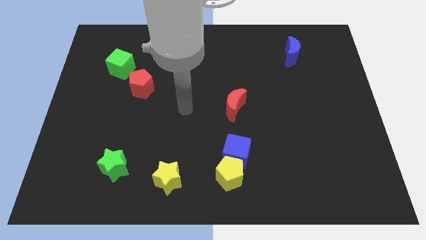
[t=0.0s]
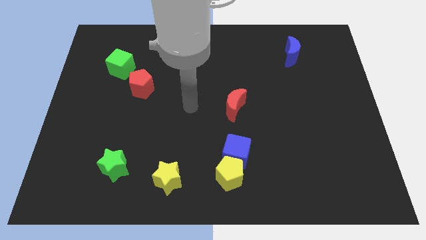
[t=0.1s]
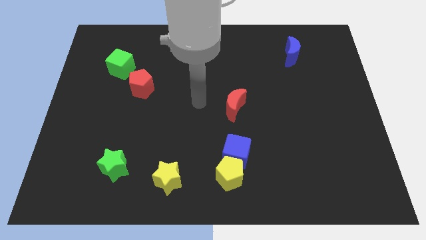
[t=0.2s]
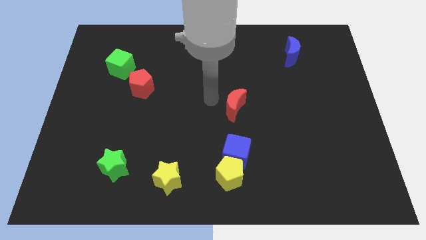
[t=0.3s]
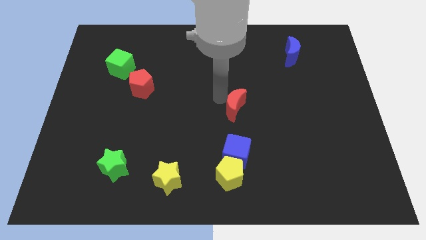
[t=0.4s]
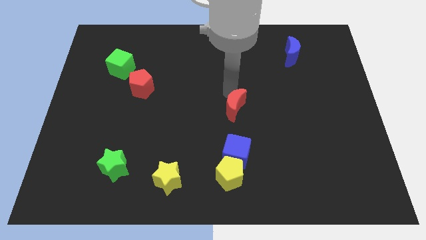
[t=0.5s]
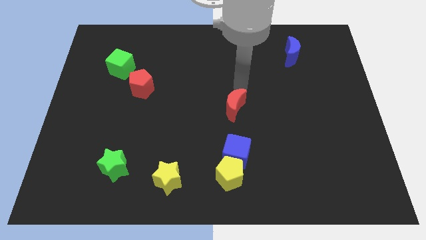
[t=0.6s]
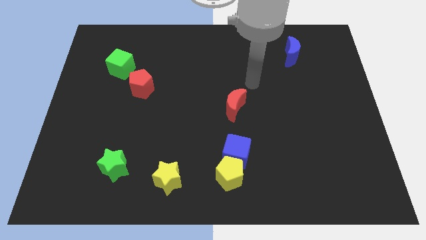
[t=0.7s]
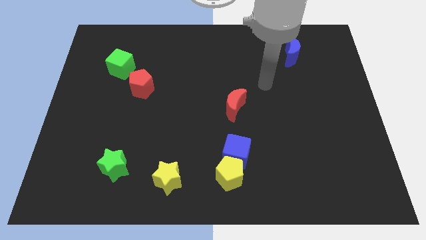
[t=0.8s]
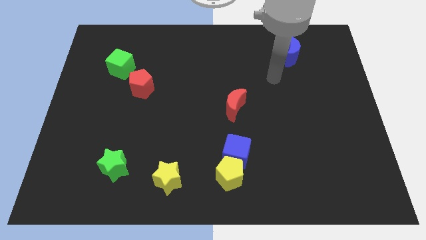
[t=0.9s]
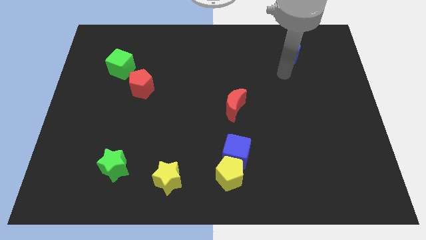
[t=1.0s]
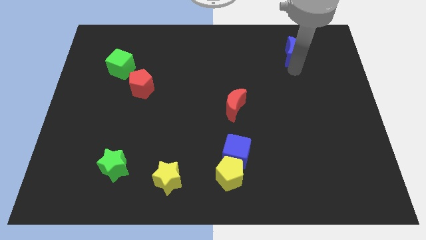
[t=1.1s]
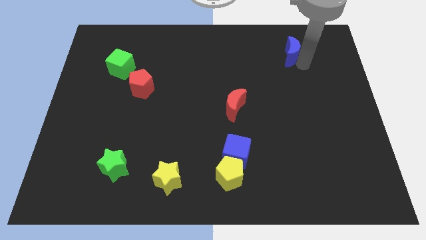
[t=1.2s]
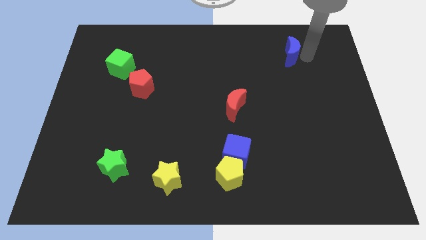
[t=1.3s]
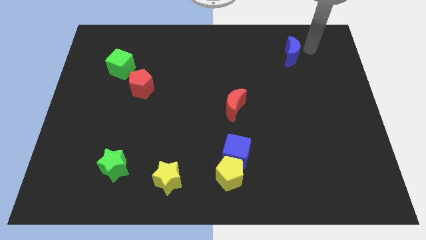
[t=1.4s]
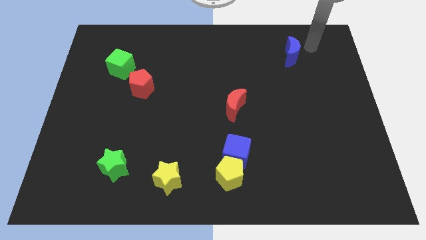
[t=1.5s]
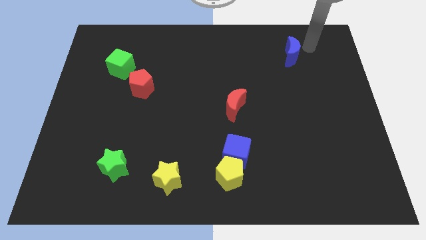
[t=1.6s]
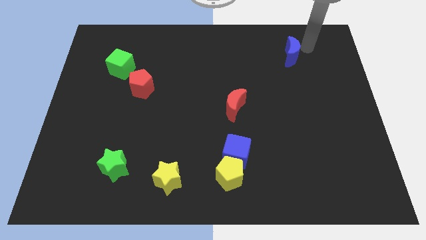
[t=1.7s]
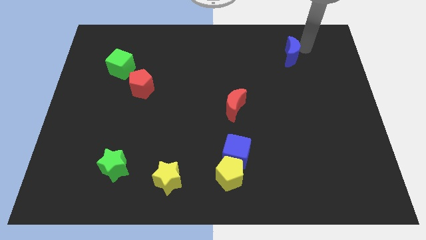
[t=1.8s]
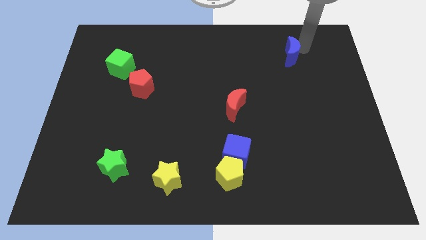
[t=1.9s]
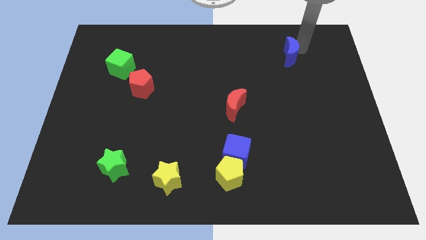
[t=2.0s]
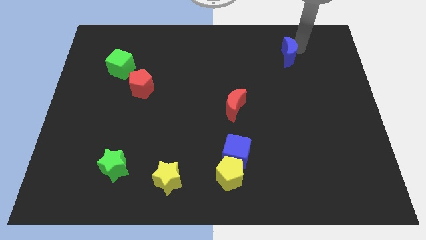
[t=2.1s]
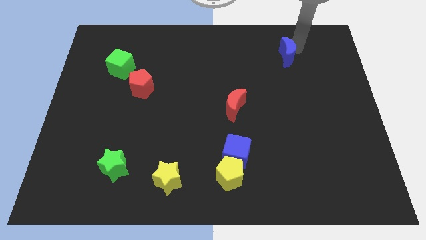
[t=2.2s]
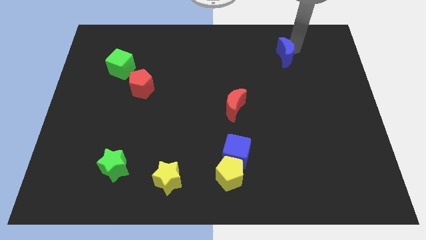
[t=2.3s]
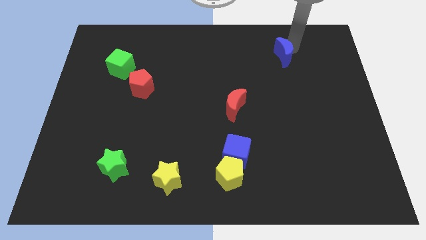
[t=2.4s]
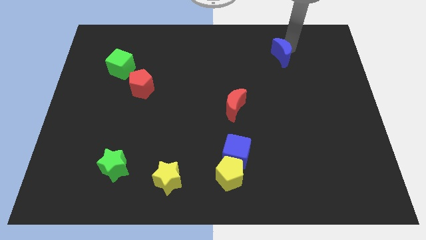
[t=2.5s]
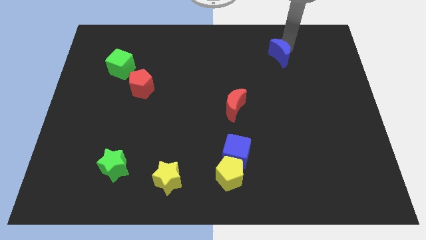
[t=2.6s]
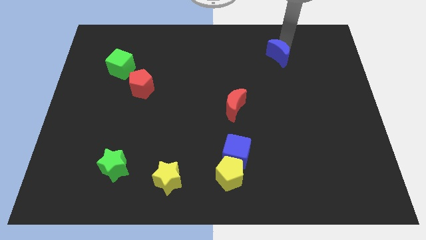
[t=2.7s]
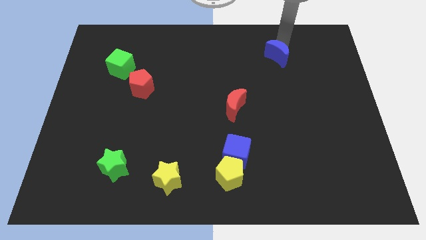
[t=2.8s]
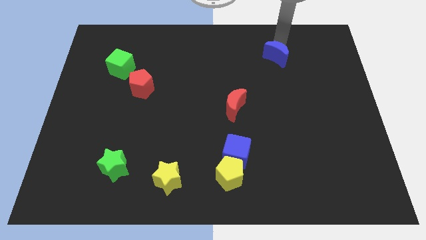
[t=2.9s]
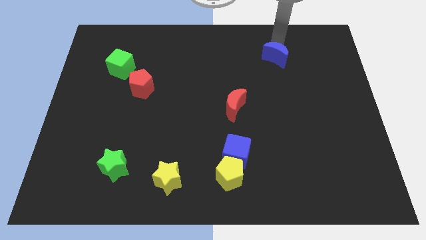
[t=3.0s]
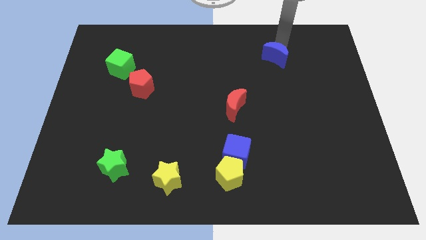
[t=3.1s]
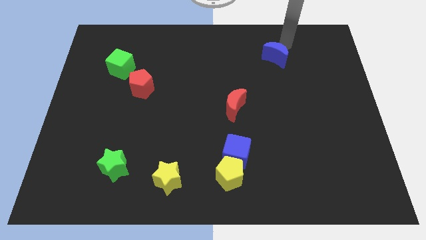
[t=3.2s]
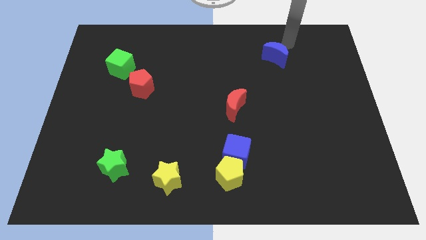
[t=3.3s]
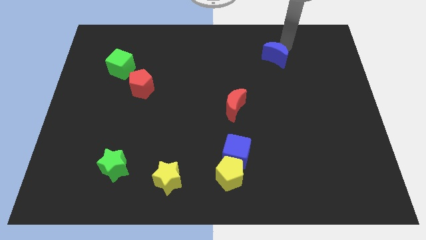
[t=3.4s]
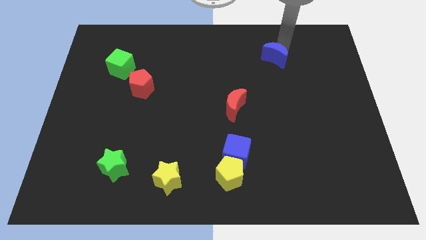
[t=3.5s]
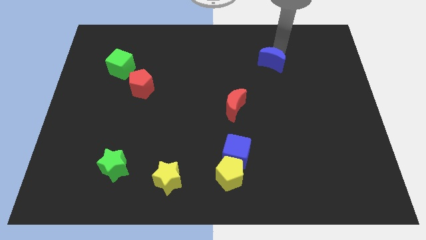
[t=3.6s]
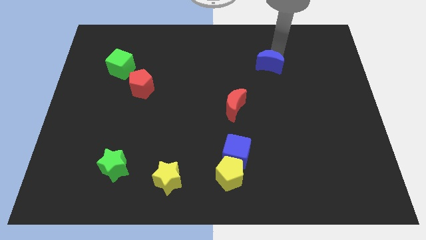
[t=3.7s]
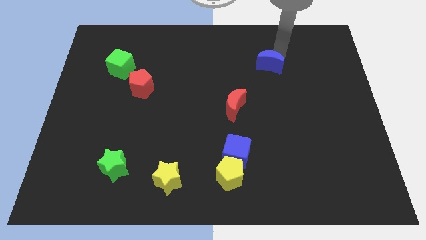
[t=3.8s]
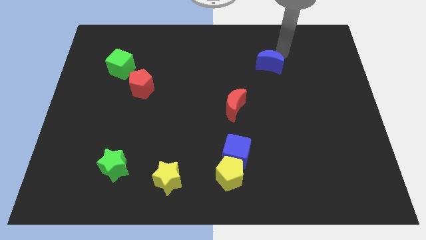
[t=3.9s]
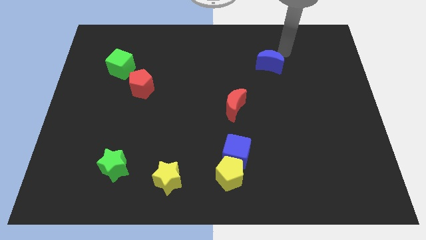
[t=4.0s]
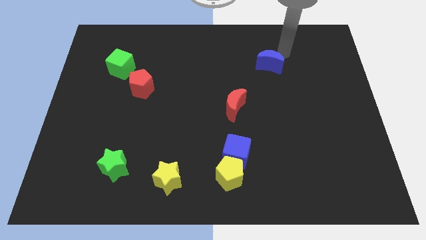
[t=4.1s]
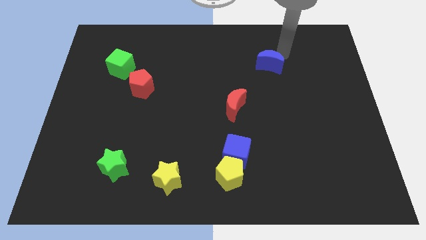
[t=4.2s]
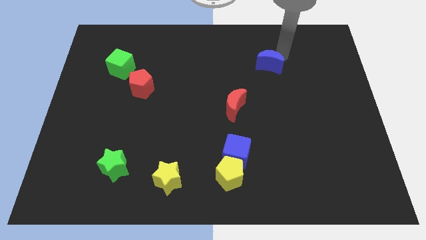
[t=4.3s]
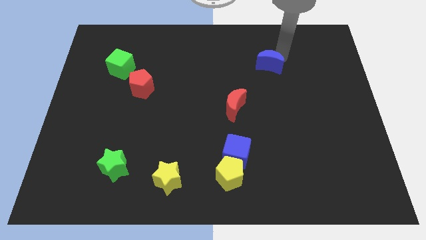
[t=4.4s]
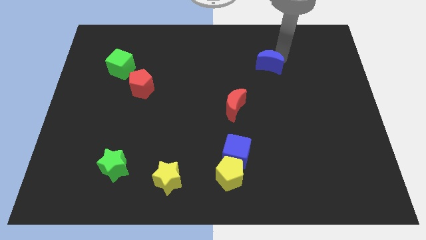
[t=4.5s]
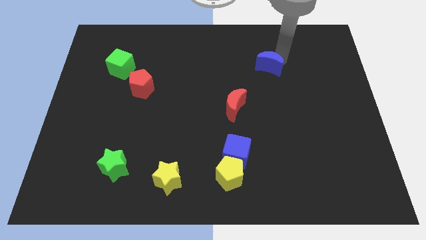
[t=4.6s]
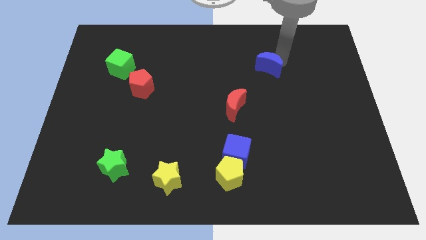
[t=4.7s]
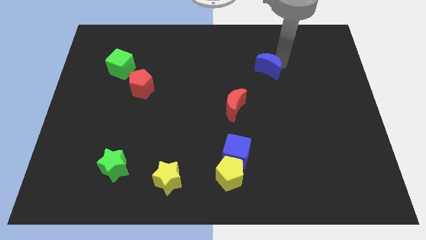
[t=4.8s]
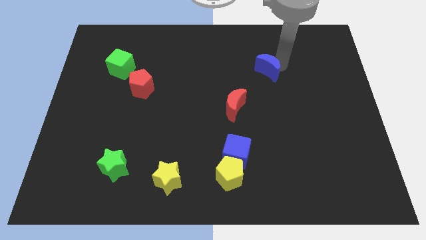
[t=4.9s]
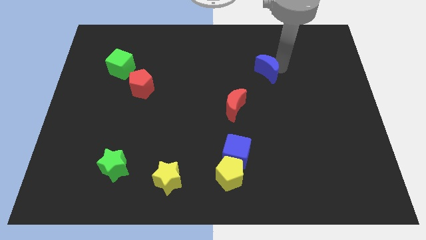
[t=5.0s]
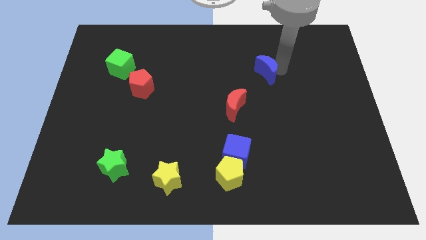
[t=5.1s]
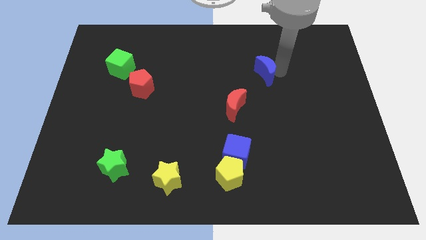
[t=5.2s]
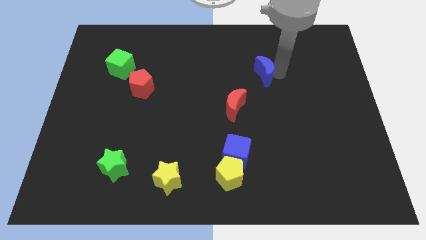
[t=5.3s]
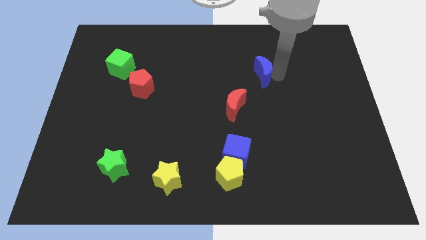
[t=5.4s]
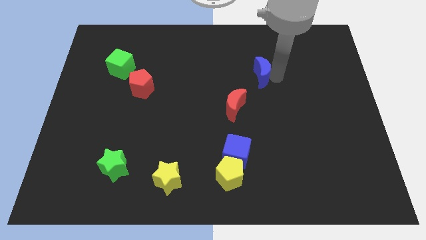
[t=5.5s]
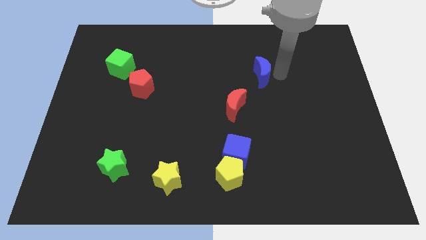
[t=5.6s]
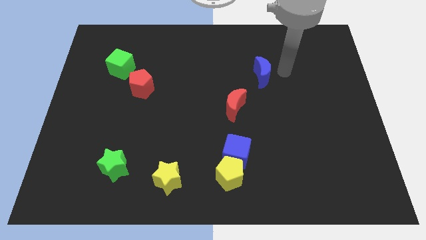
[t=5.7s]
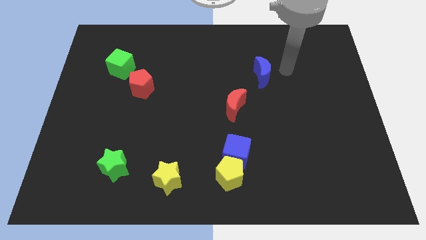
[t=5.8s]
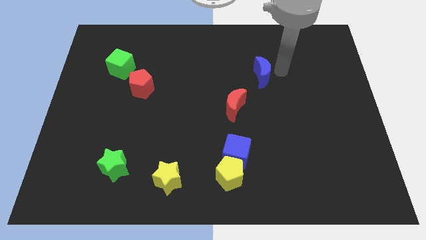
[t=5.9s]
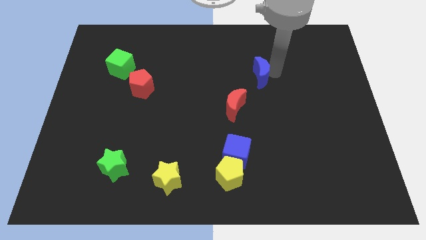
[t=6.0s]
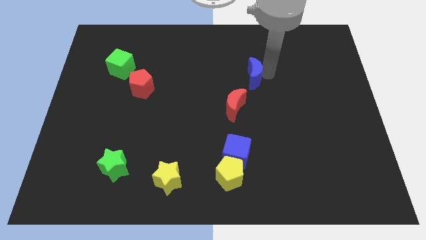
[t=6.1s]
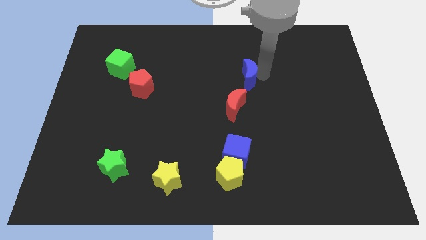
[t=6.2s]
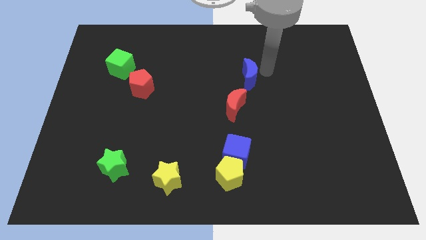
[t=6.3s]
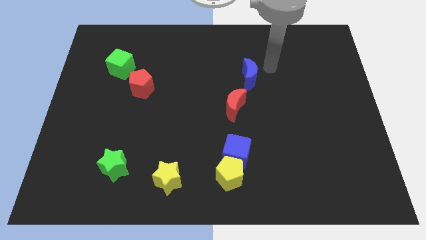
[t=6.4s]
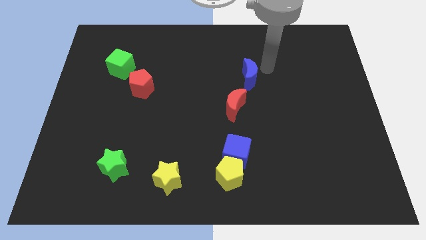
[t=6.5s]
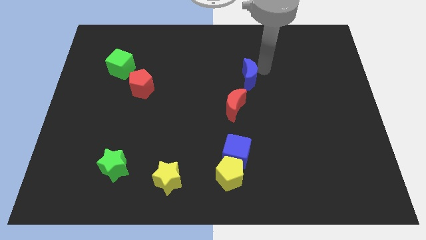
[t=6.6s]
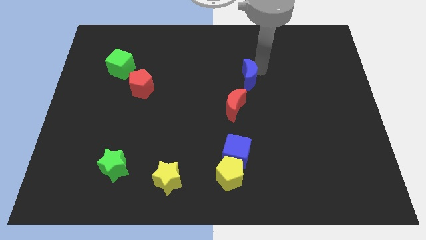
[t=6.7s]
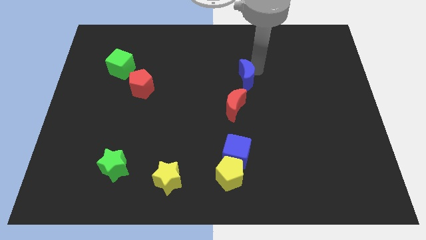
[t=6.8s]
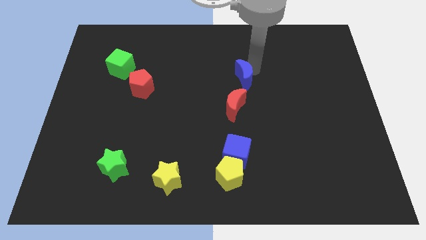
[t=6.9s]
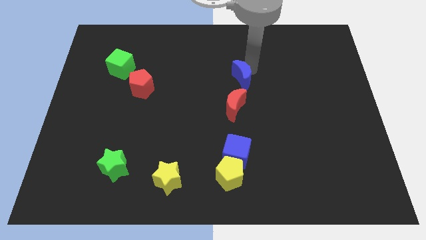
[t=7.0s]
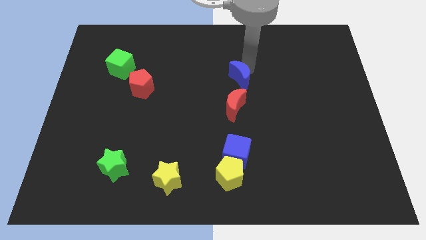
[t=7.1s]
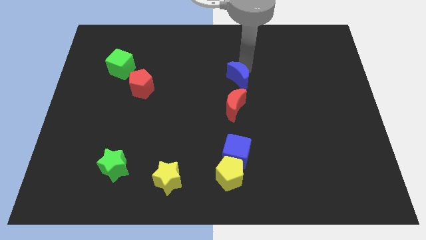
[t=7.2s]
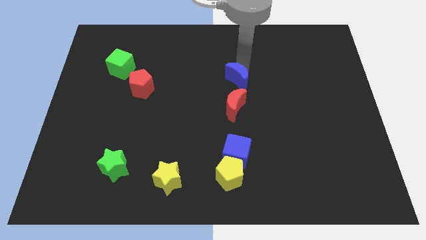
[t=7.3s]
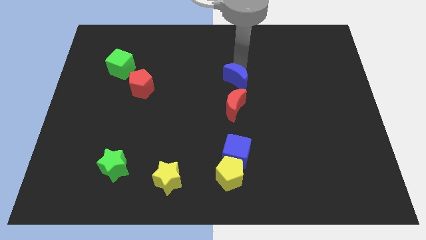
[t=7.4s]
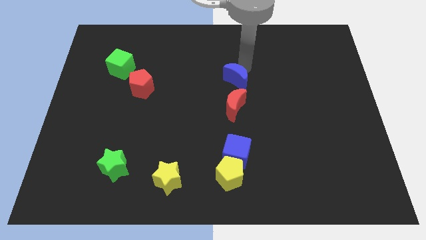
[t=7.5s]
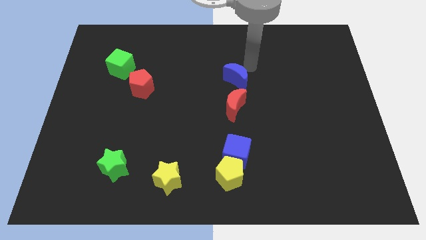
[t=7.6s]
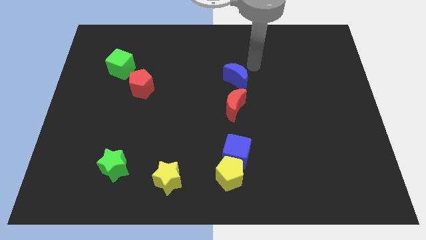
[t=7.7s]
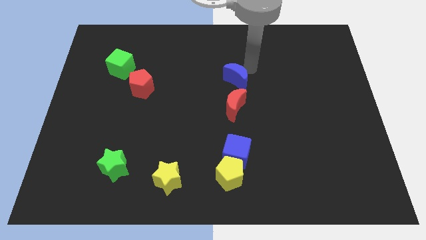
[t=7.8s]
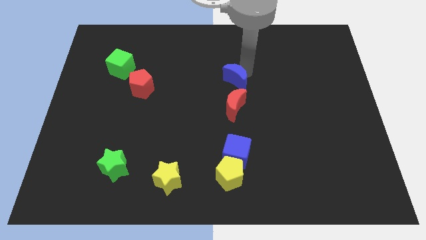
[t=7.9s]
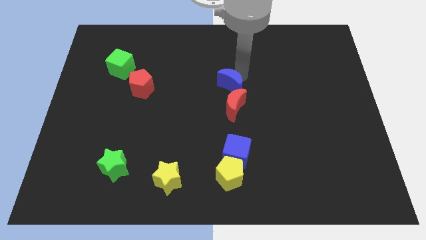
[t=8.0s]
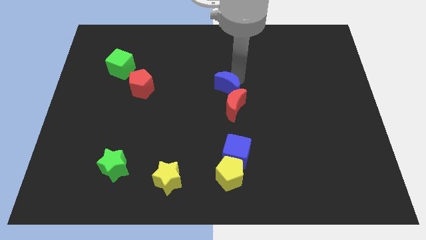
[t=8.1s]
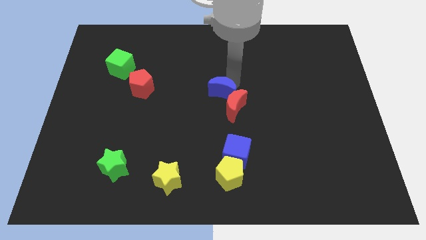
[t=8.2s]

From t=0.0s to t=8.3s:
slide the blue moon downwards and to the left
